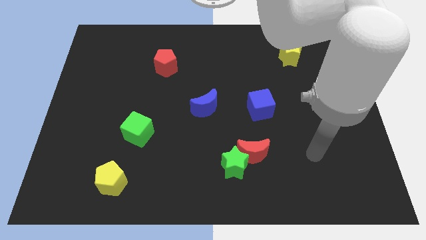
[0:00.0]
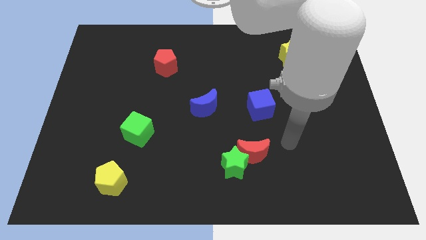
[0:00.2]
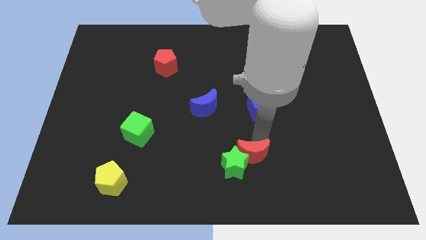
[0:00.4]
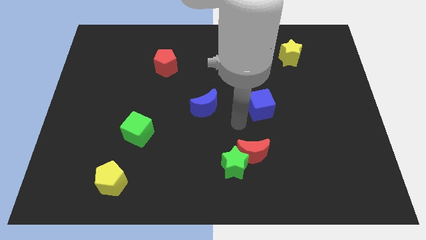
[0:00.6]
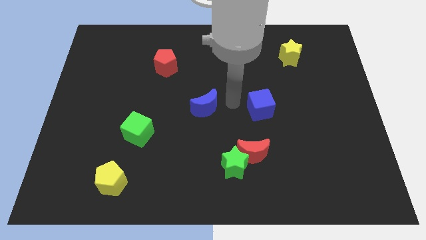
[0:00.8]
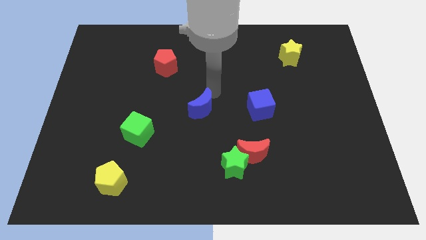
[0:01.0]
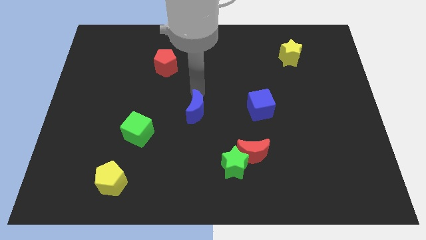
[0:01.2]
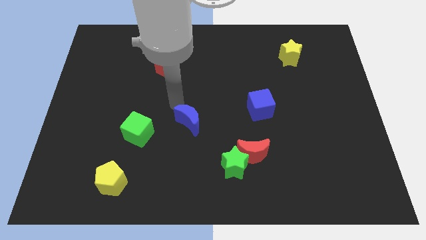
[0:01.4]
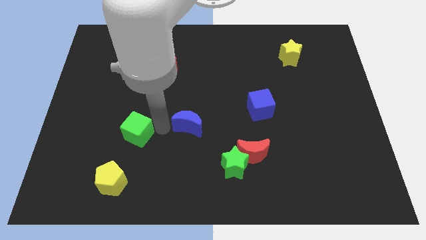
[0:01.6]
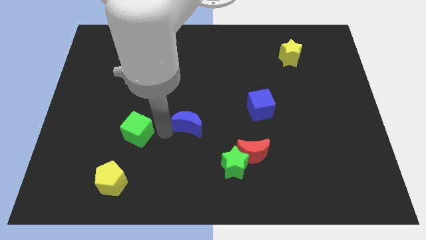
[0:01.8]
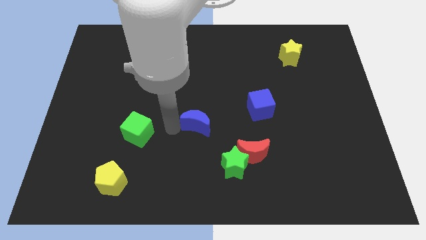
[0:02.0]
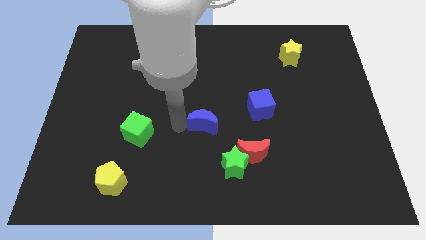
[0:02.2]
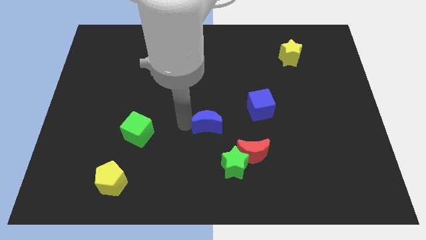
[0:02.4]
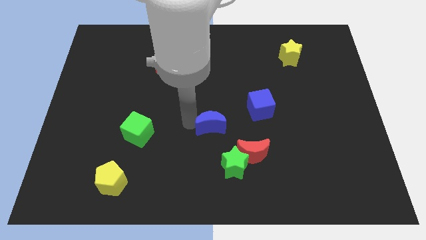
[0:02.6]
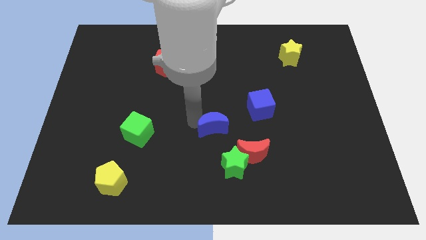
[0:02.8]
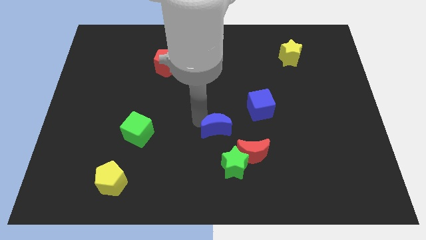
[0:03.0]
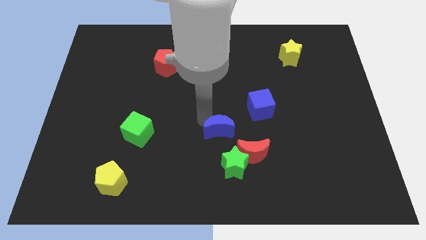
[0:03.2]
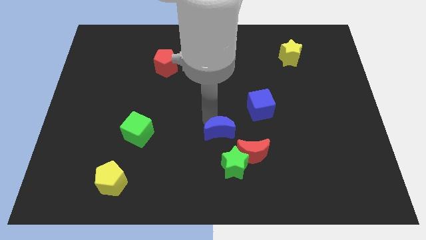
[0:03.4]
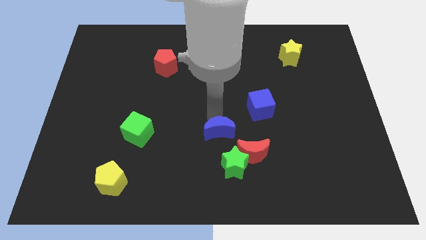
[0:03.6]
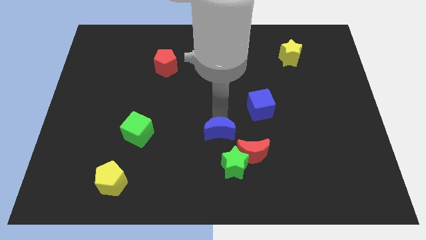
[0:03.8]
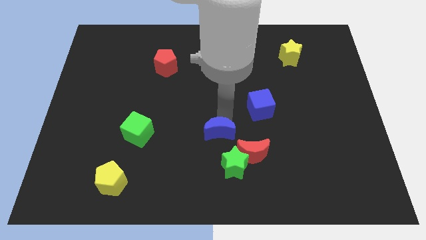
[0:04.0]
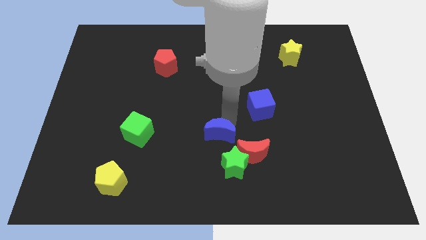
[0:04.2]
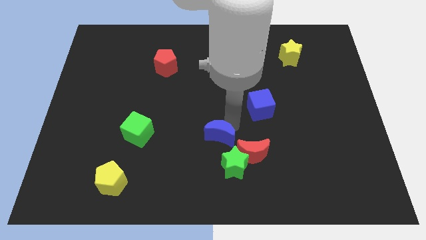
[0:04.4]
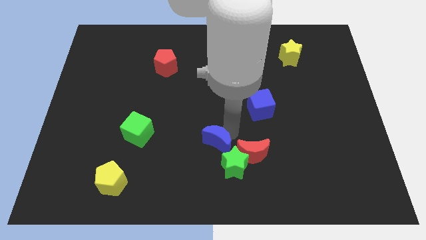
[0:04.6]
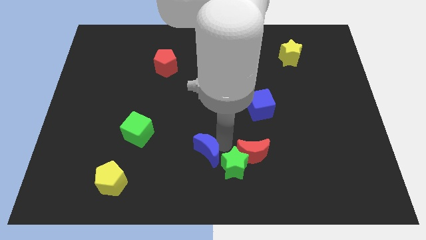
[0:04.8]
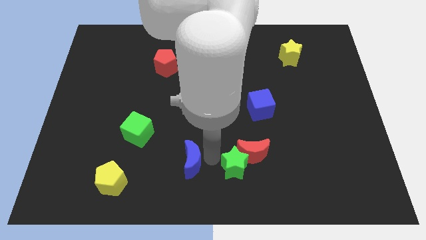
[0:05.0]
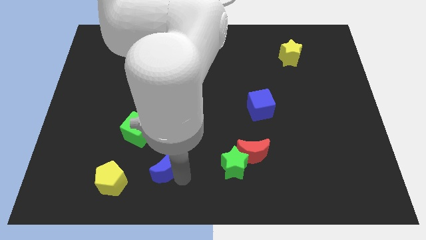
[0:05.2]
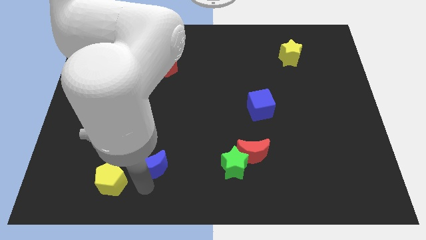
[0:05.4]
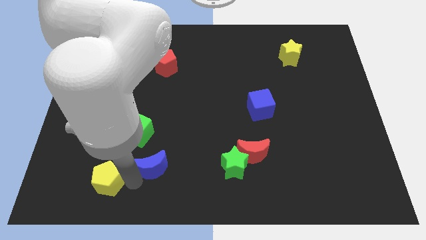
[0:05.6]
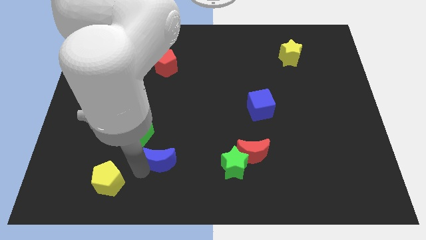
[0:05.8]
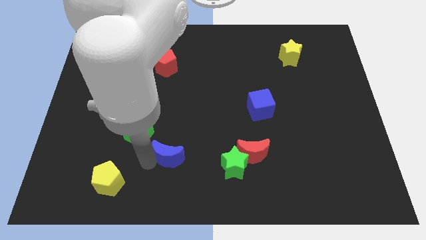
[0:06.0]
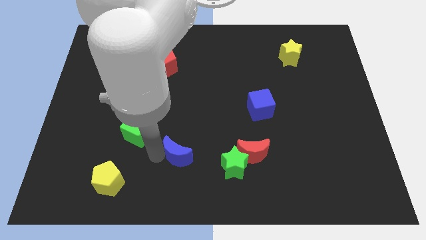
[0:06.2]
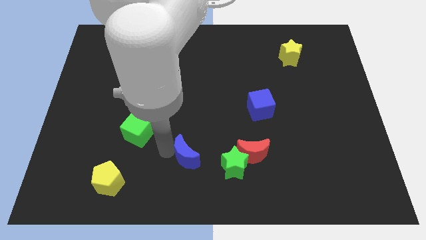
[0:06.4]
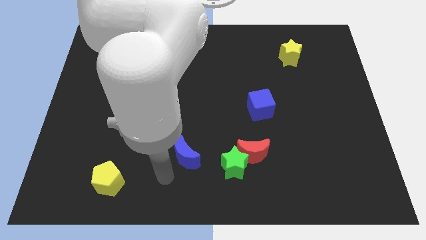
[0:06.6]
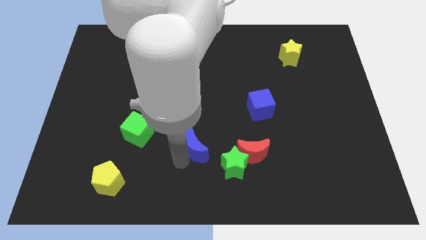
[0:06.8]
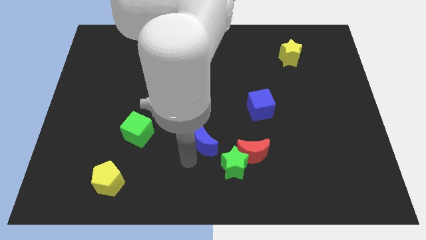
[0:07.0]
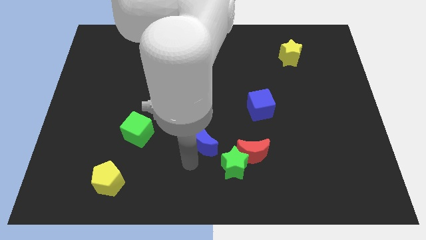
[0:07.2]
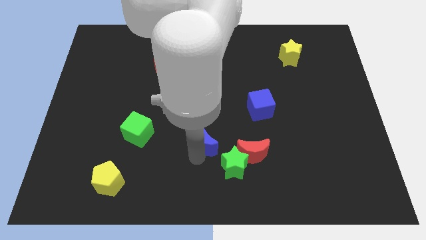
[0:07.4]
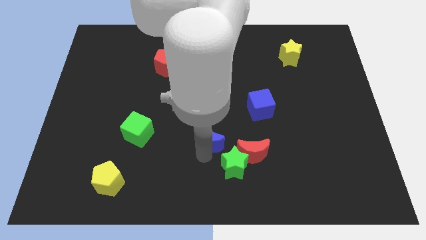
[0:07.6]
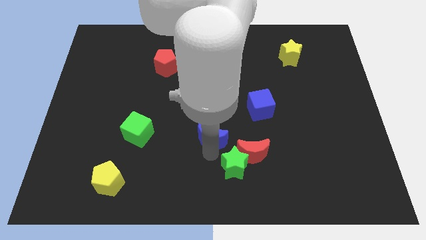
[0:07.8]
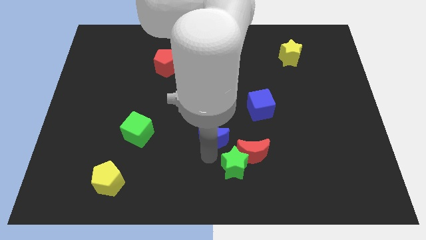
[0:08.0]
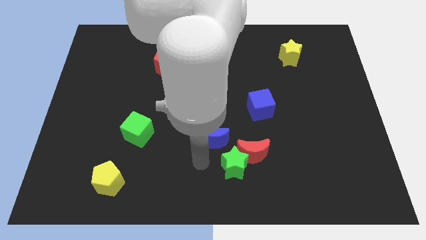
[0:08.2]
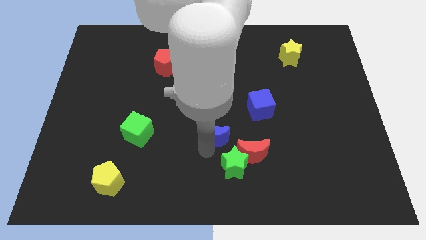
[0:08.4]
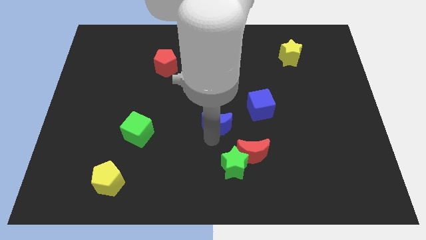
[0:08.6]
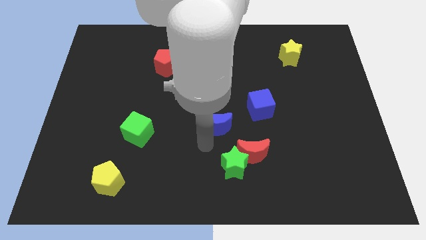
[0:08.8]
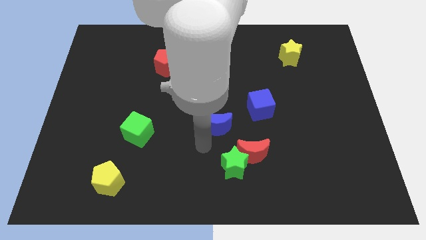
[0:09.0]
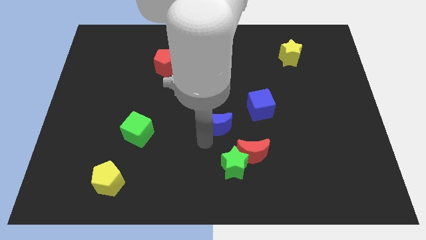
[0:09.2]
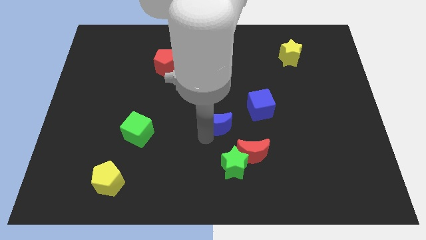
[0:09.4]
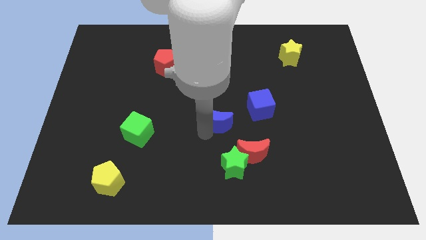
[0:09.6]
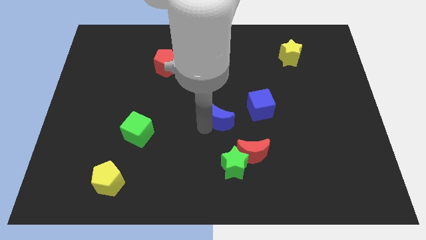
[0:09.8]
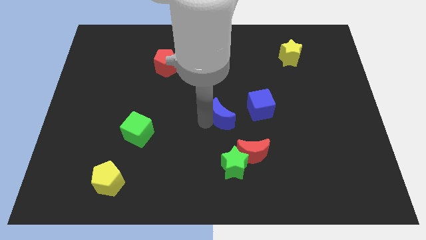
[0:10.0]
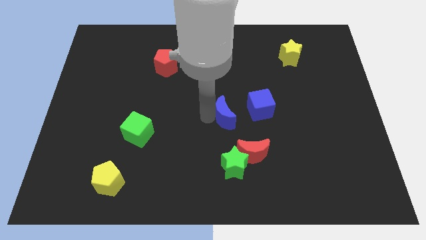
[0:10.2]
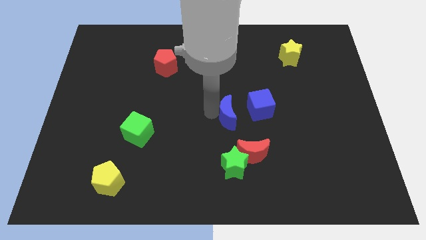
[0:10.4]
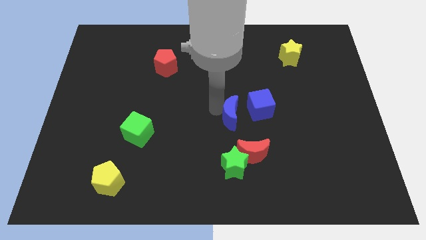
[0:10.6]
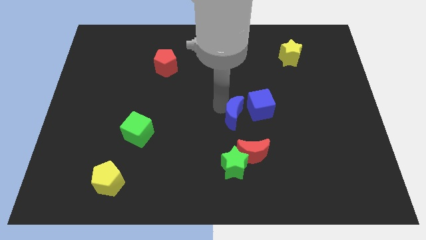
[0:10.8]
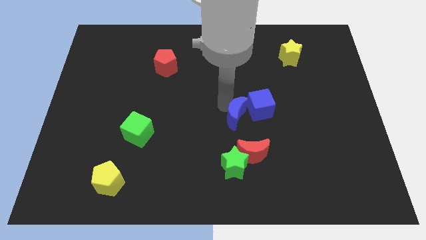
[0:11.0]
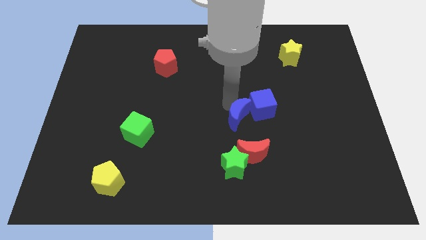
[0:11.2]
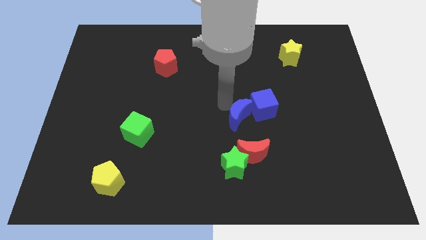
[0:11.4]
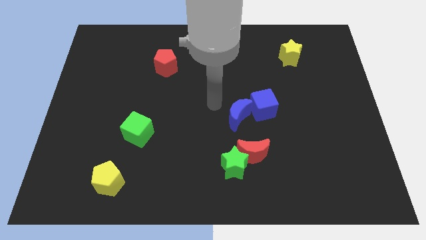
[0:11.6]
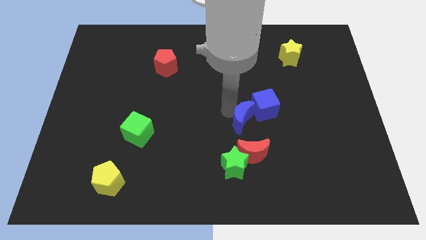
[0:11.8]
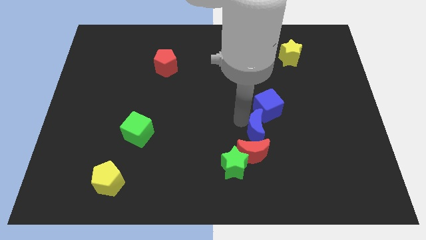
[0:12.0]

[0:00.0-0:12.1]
move the blue moon to the top right of the red moon

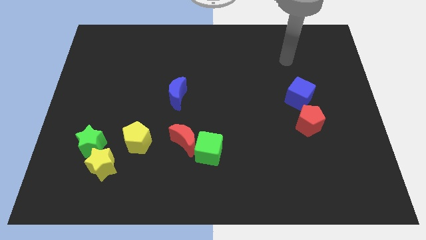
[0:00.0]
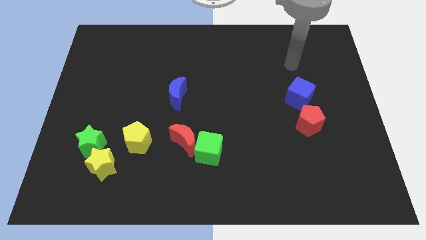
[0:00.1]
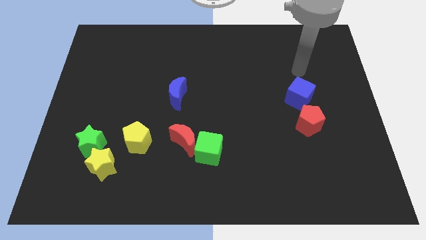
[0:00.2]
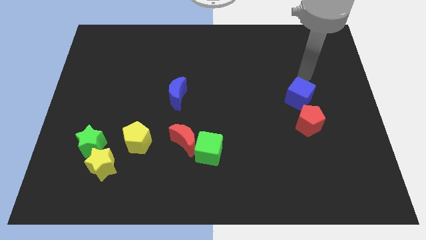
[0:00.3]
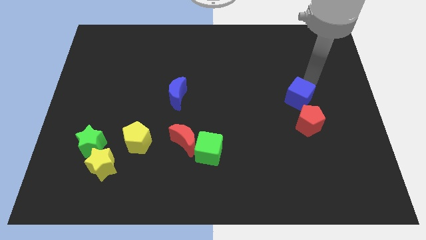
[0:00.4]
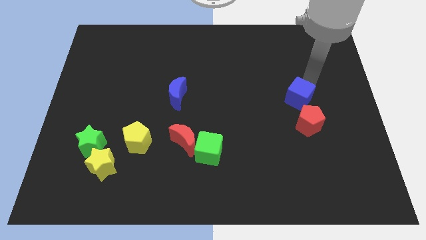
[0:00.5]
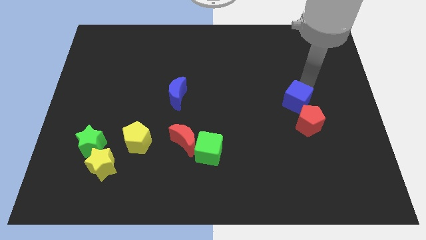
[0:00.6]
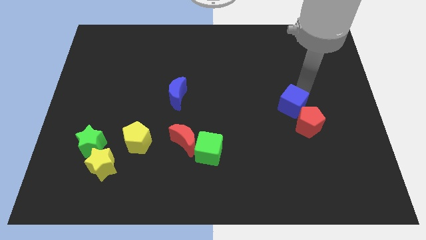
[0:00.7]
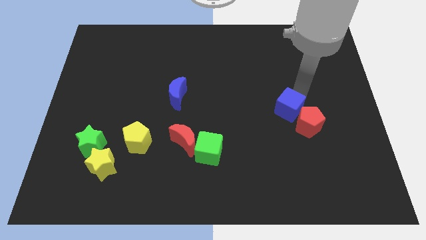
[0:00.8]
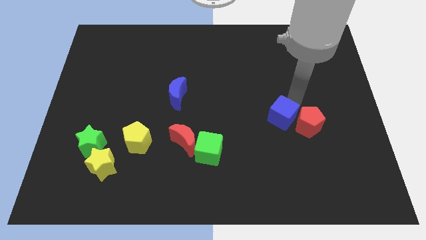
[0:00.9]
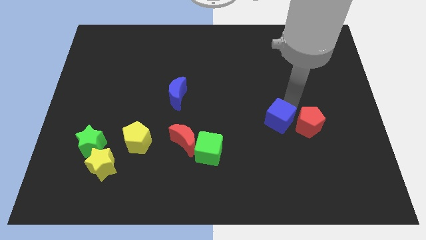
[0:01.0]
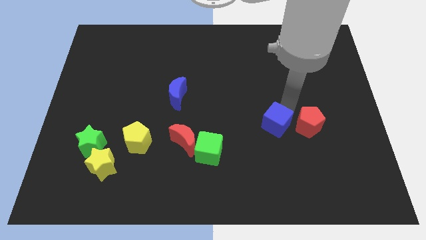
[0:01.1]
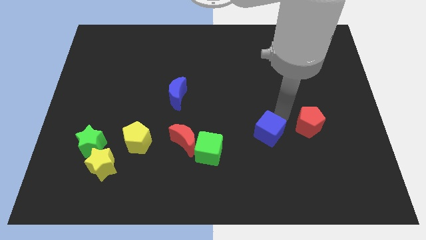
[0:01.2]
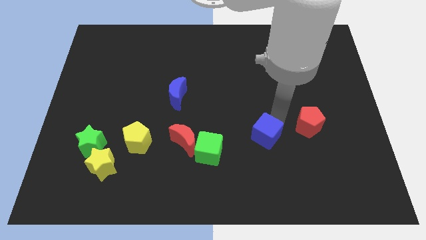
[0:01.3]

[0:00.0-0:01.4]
push the blue cube just right of the green cube
